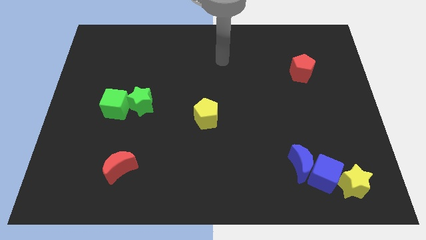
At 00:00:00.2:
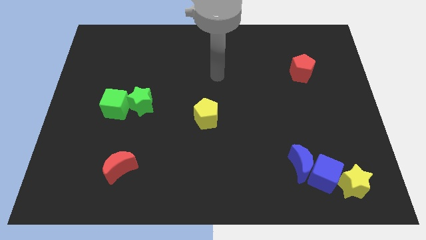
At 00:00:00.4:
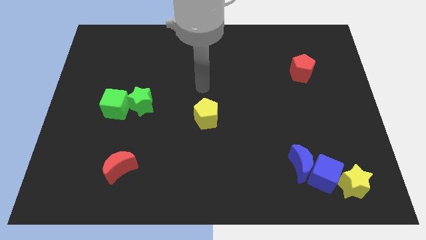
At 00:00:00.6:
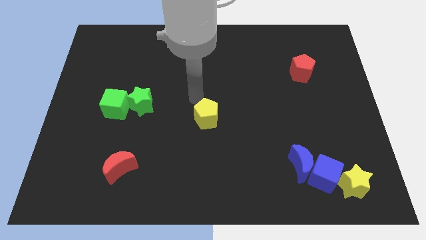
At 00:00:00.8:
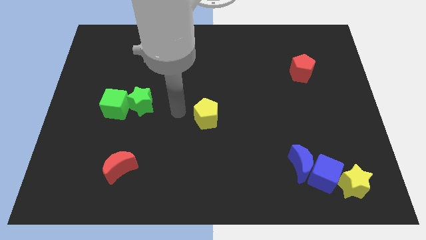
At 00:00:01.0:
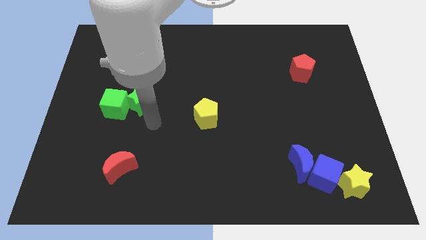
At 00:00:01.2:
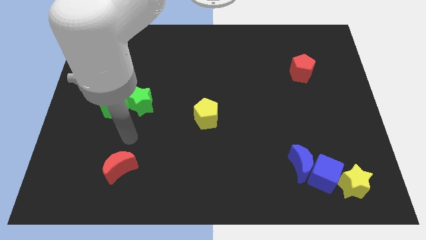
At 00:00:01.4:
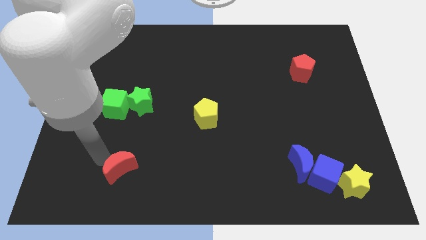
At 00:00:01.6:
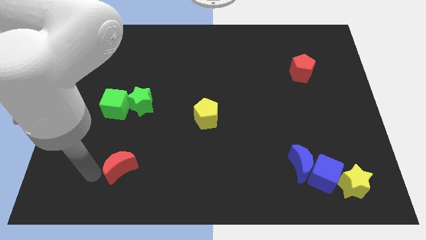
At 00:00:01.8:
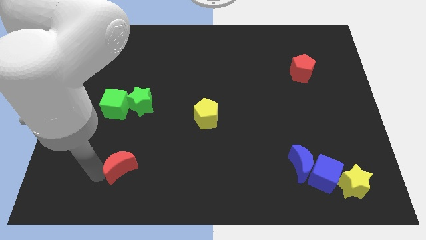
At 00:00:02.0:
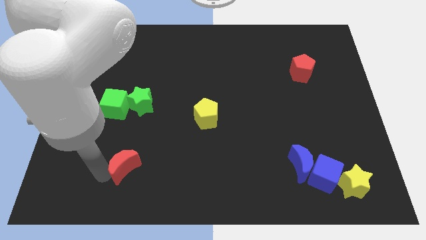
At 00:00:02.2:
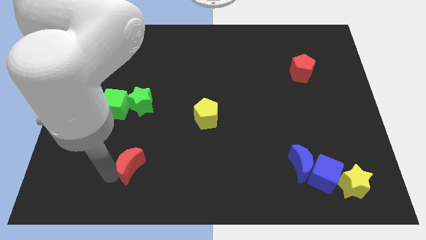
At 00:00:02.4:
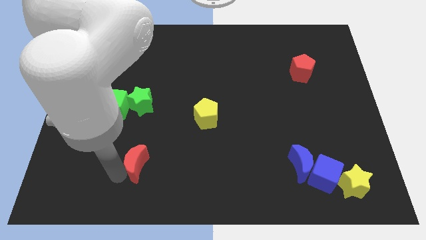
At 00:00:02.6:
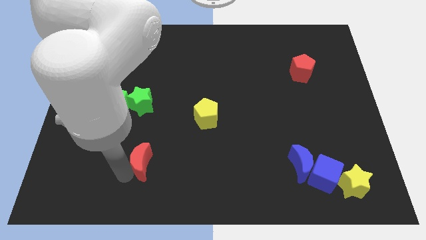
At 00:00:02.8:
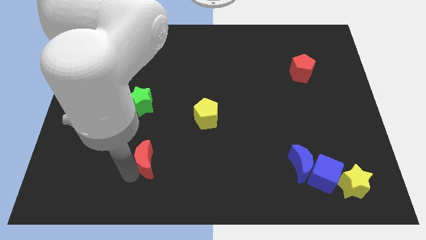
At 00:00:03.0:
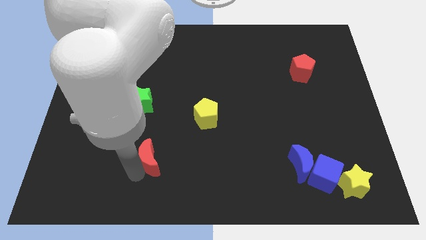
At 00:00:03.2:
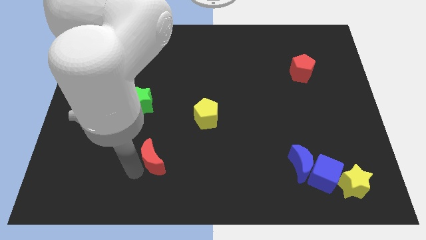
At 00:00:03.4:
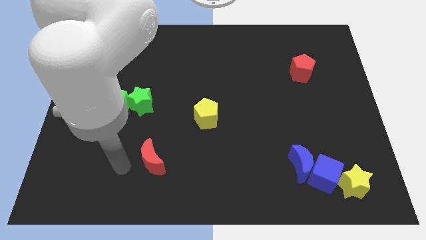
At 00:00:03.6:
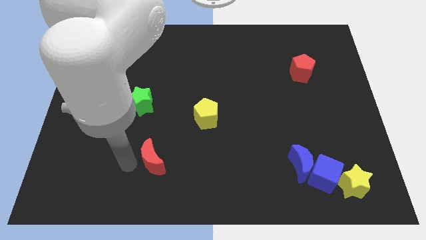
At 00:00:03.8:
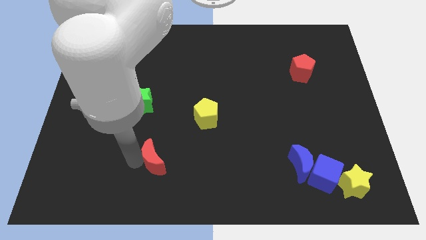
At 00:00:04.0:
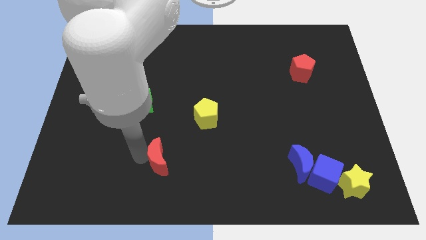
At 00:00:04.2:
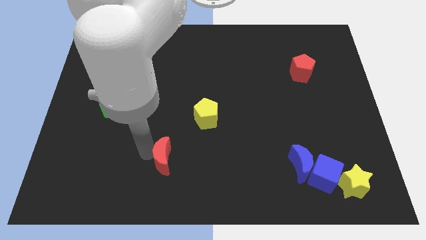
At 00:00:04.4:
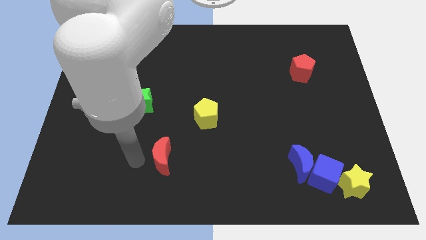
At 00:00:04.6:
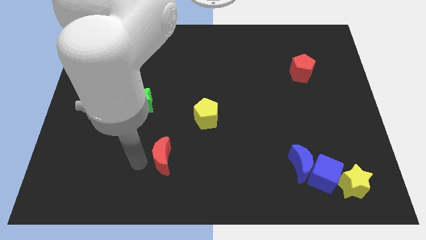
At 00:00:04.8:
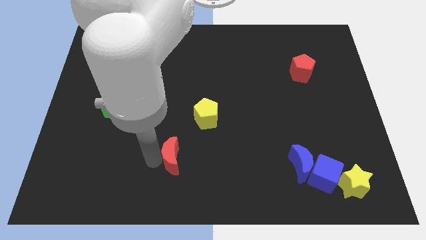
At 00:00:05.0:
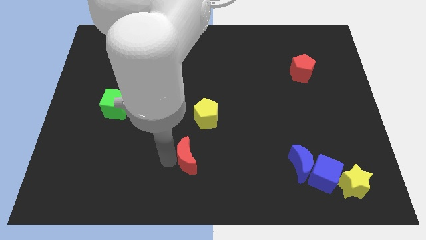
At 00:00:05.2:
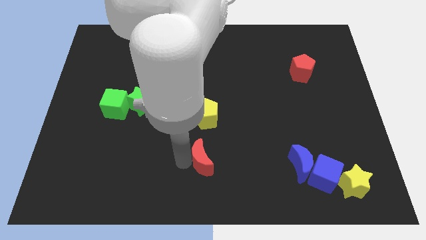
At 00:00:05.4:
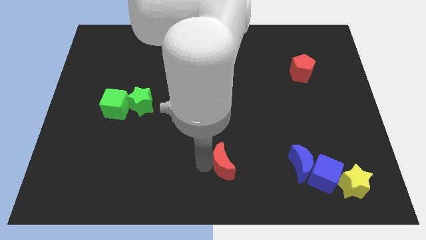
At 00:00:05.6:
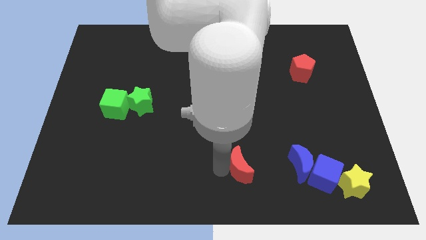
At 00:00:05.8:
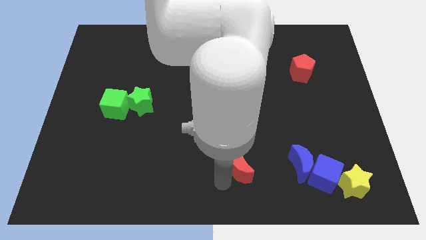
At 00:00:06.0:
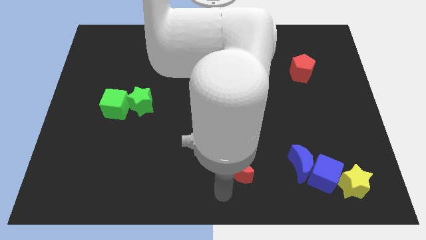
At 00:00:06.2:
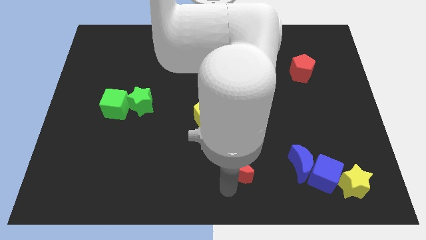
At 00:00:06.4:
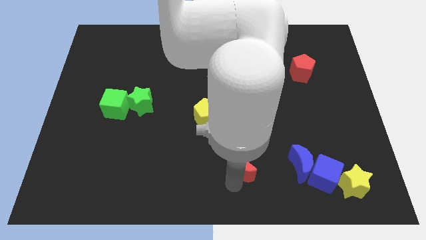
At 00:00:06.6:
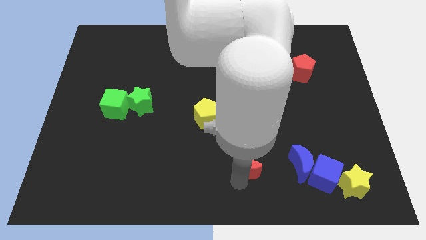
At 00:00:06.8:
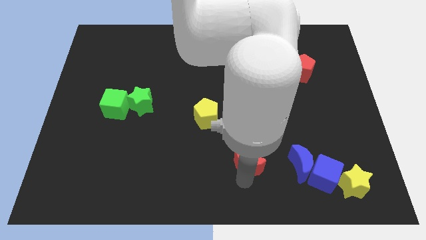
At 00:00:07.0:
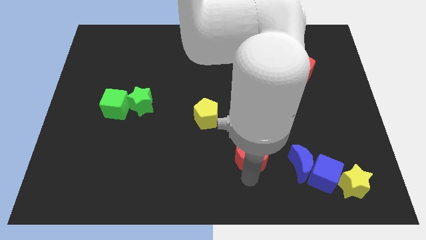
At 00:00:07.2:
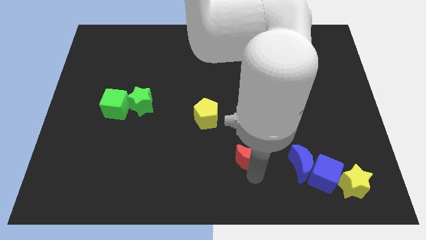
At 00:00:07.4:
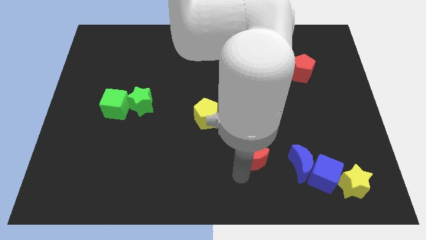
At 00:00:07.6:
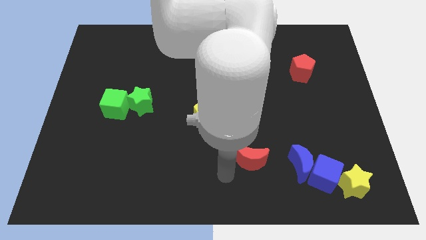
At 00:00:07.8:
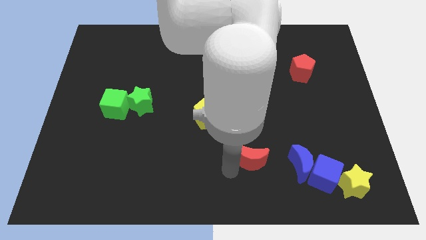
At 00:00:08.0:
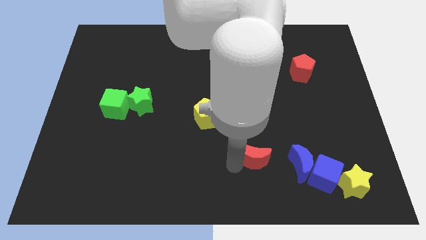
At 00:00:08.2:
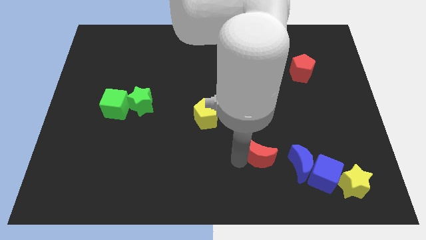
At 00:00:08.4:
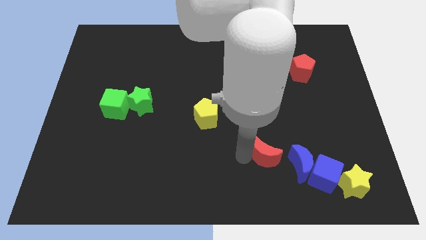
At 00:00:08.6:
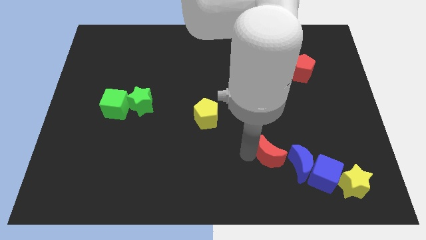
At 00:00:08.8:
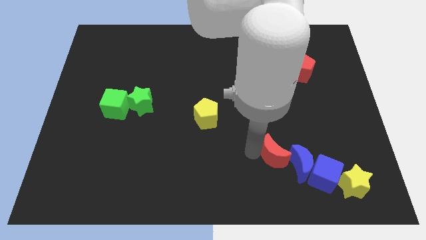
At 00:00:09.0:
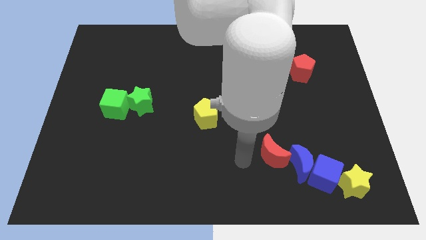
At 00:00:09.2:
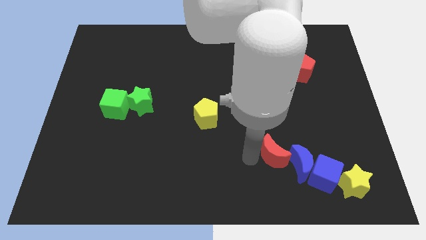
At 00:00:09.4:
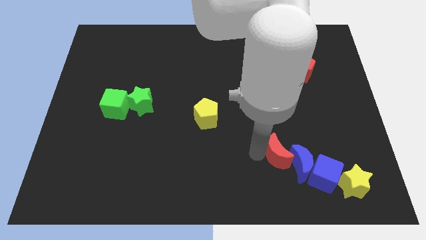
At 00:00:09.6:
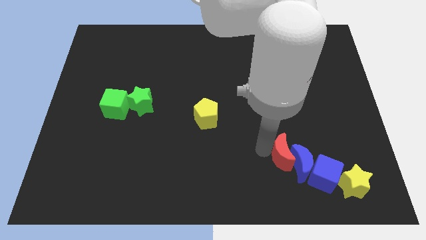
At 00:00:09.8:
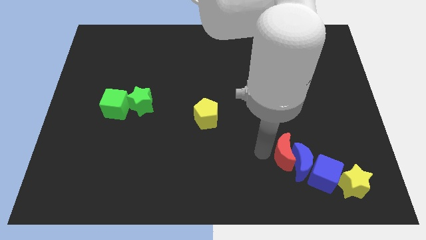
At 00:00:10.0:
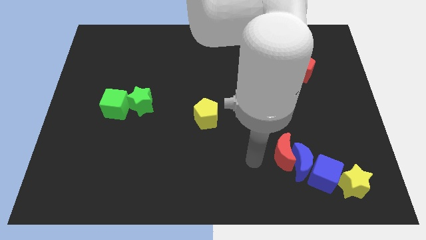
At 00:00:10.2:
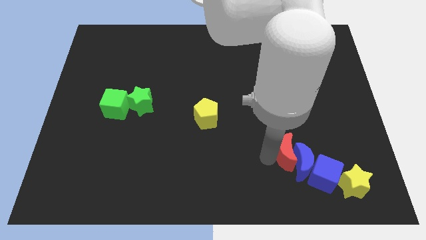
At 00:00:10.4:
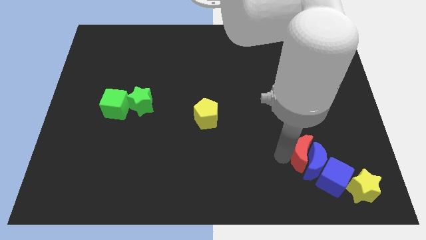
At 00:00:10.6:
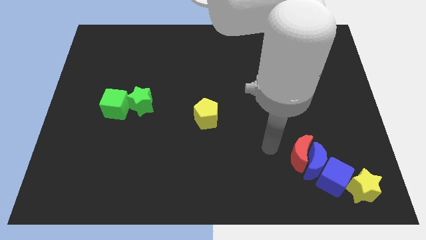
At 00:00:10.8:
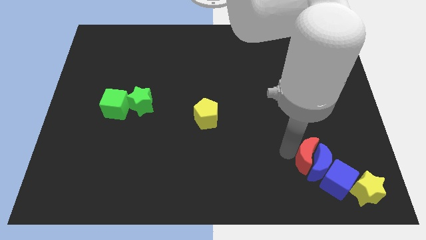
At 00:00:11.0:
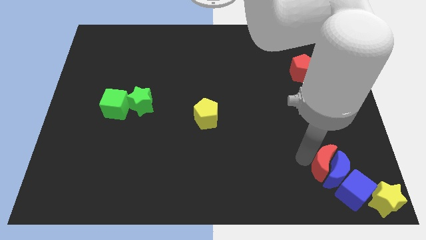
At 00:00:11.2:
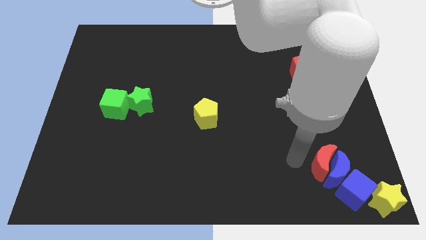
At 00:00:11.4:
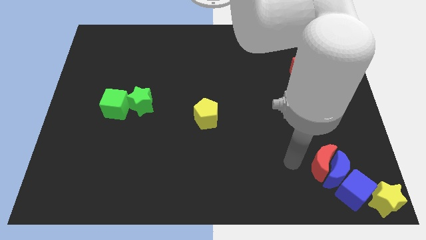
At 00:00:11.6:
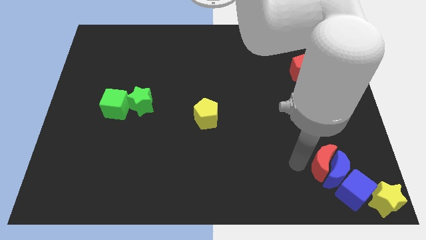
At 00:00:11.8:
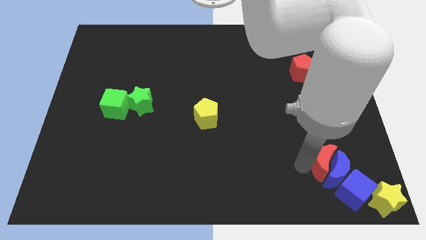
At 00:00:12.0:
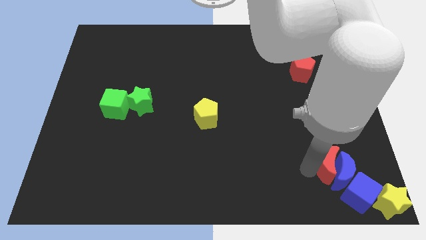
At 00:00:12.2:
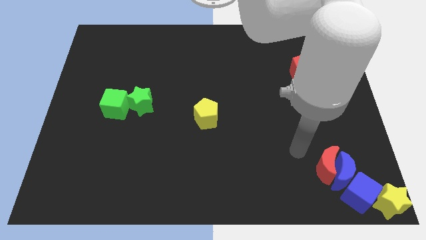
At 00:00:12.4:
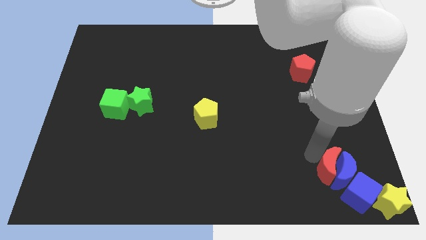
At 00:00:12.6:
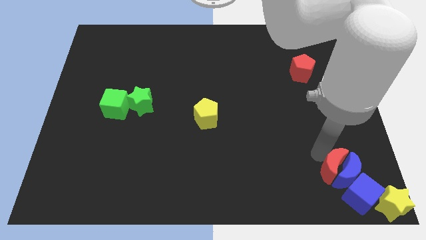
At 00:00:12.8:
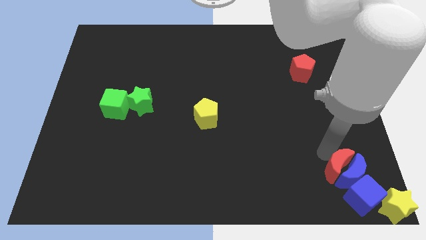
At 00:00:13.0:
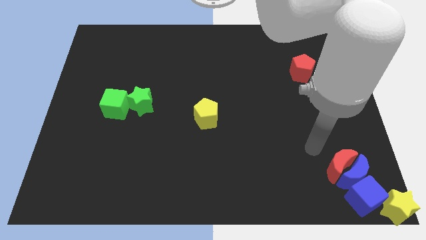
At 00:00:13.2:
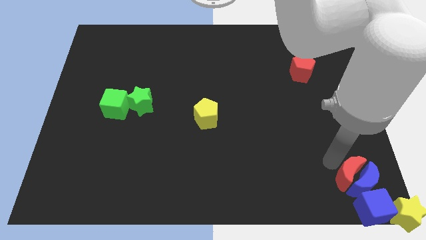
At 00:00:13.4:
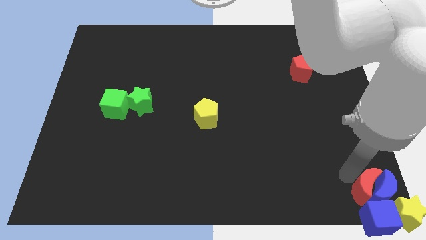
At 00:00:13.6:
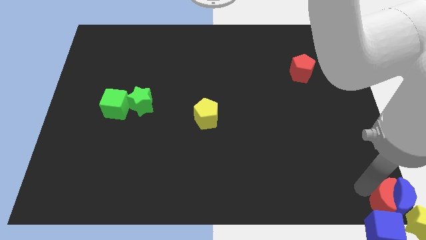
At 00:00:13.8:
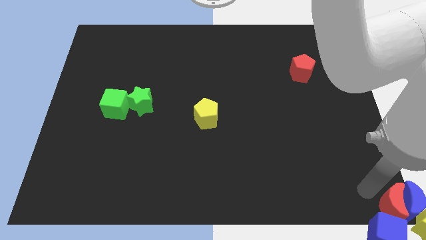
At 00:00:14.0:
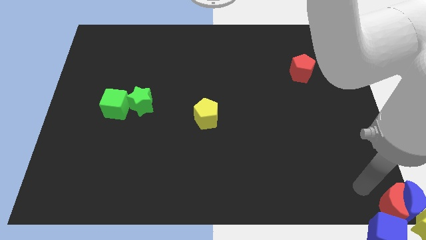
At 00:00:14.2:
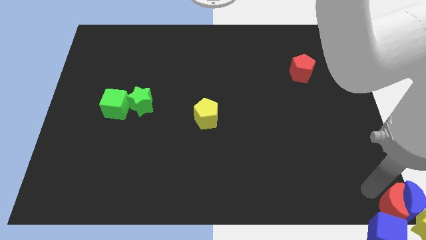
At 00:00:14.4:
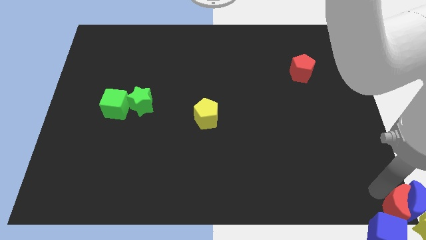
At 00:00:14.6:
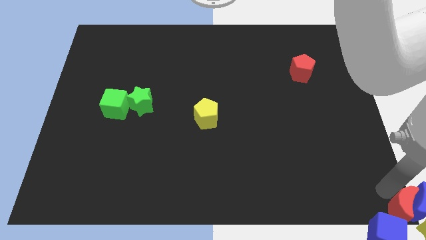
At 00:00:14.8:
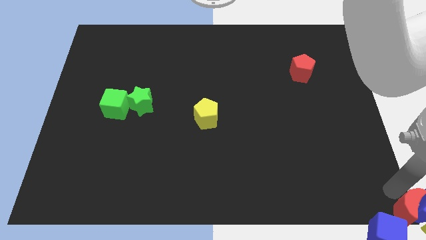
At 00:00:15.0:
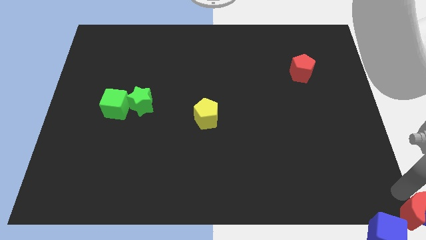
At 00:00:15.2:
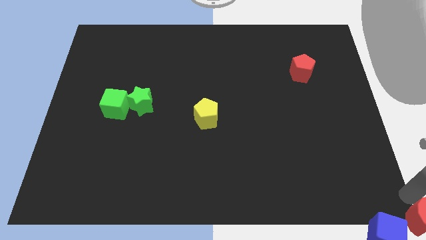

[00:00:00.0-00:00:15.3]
push the red moon to the yellow star
